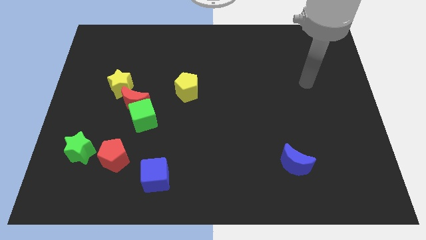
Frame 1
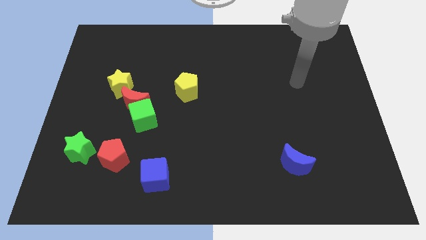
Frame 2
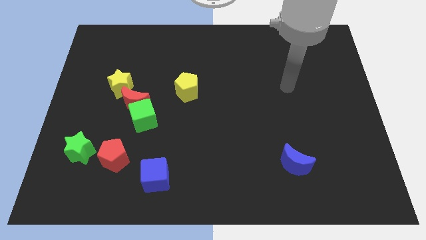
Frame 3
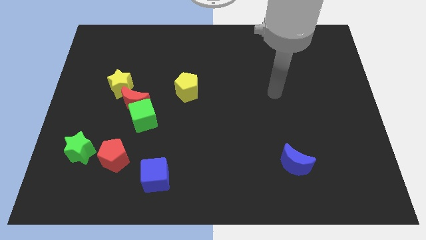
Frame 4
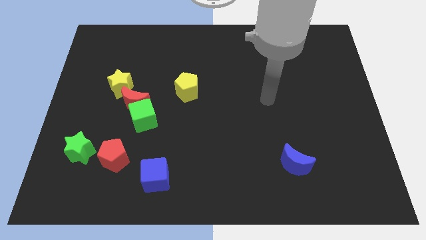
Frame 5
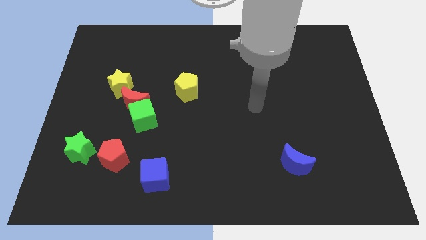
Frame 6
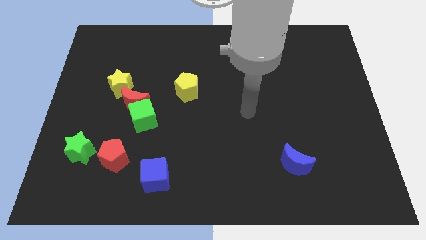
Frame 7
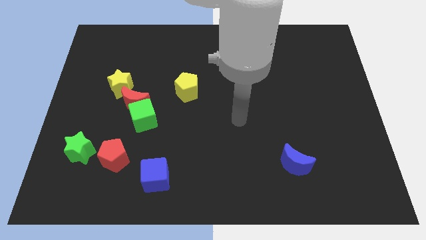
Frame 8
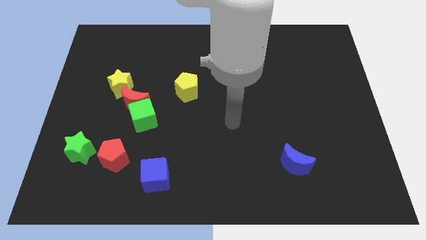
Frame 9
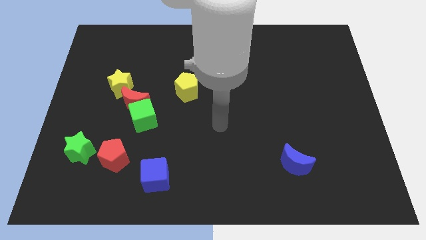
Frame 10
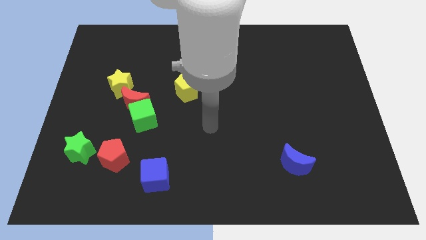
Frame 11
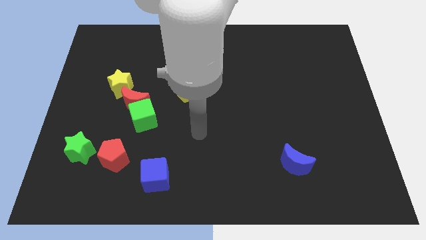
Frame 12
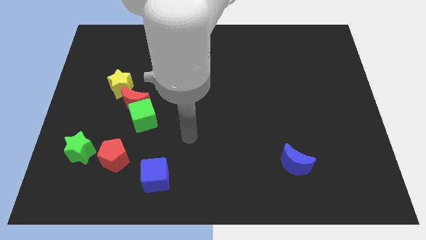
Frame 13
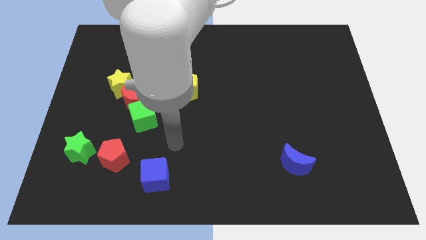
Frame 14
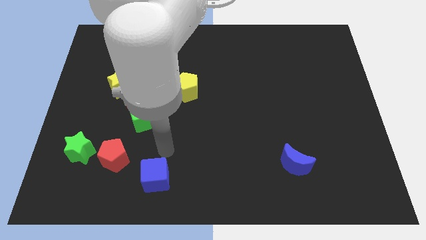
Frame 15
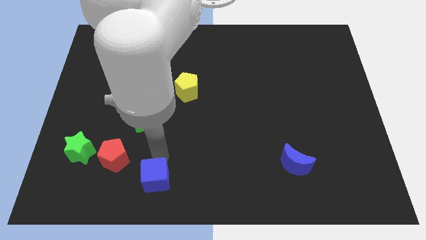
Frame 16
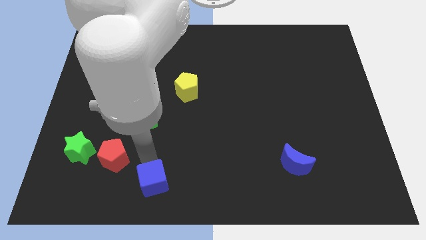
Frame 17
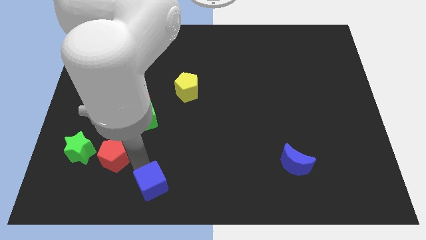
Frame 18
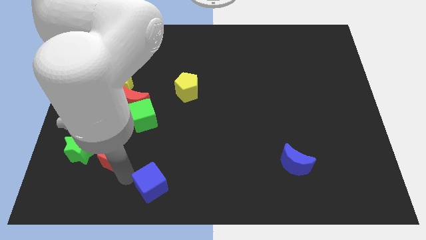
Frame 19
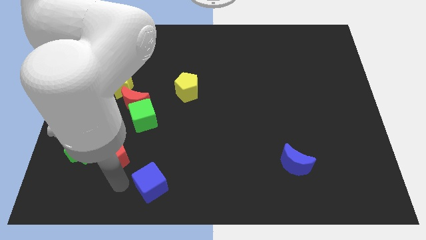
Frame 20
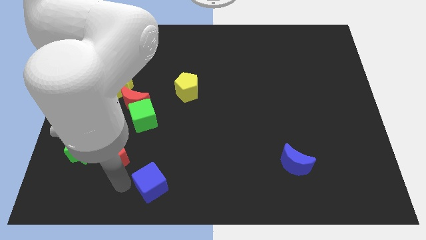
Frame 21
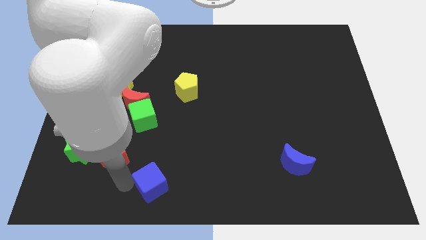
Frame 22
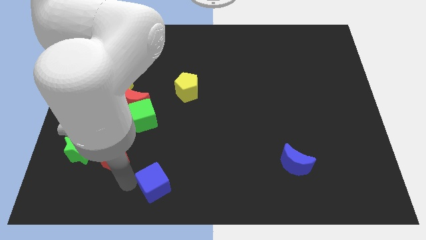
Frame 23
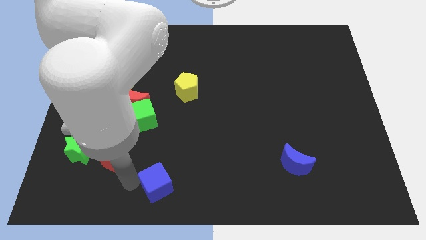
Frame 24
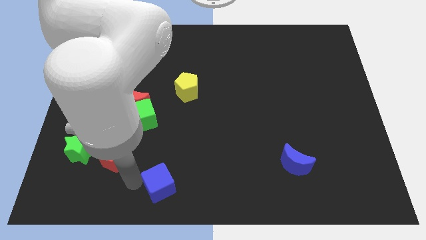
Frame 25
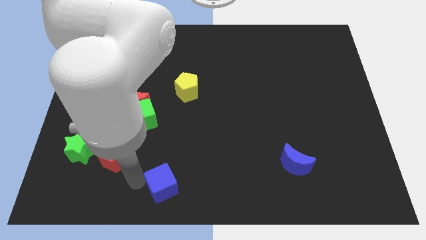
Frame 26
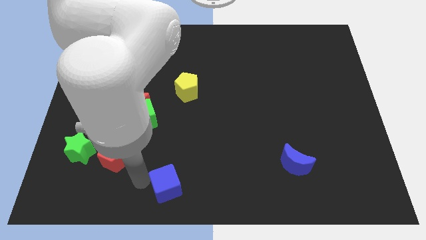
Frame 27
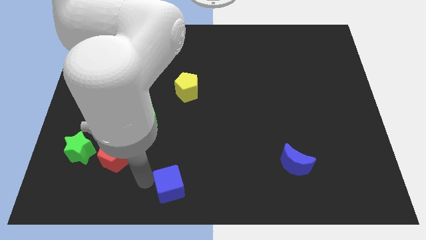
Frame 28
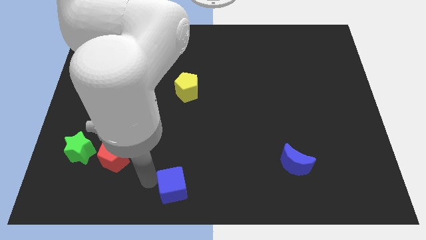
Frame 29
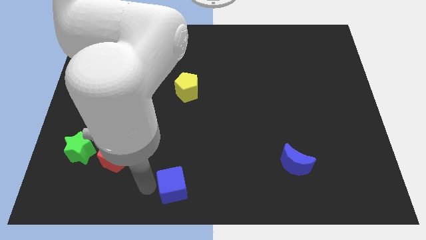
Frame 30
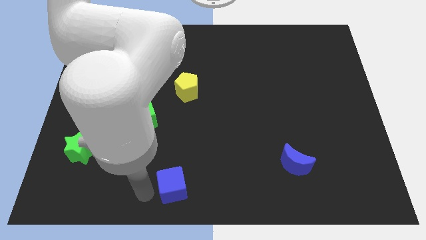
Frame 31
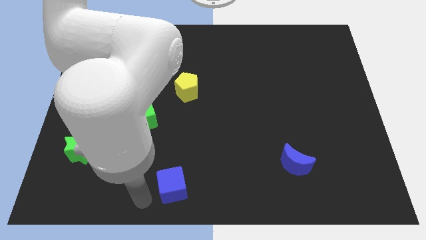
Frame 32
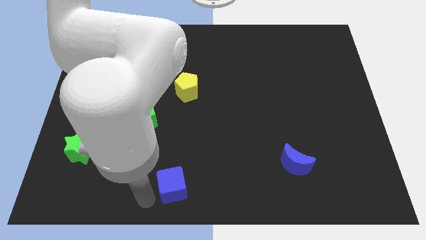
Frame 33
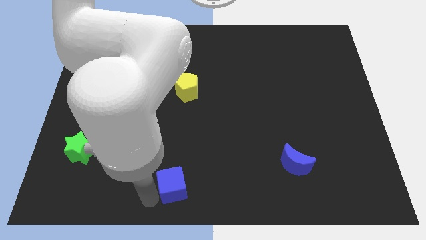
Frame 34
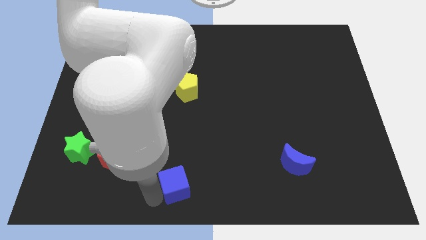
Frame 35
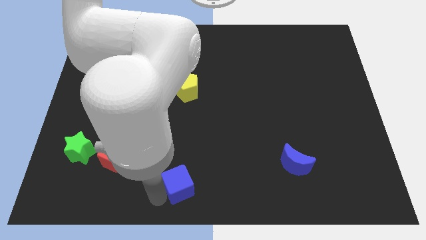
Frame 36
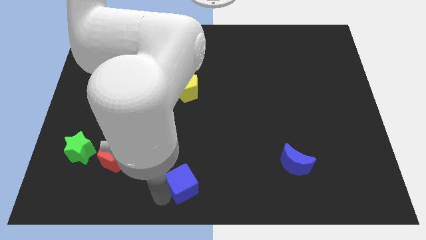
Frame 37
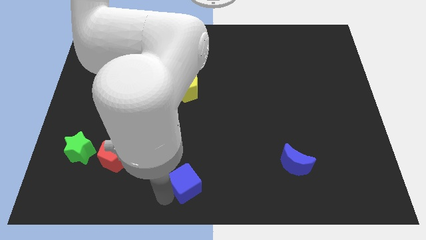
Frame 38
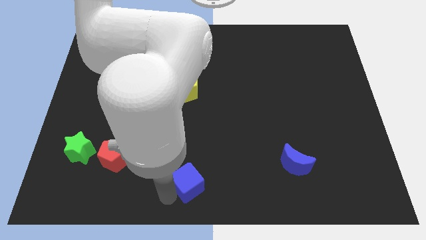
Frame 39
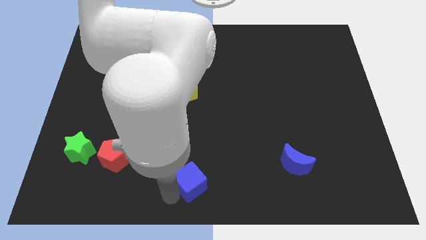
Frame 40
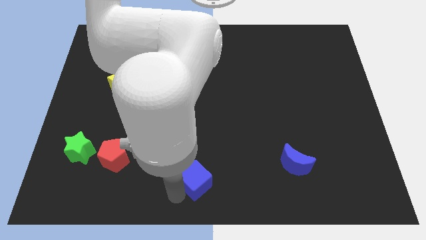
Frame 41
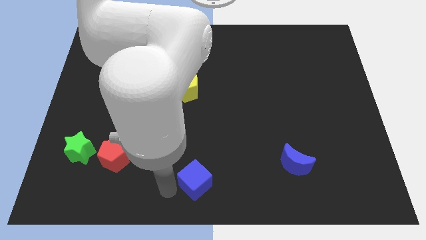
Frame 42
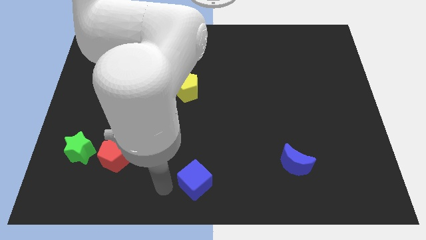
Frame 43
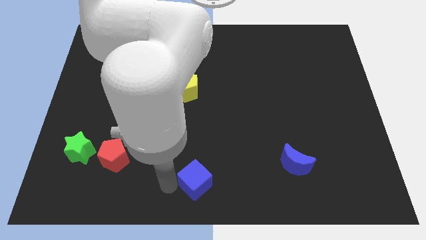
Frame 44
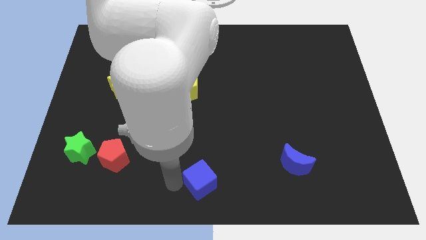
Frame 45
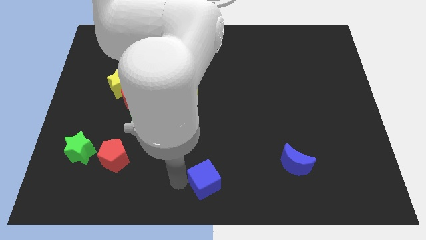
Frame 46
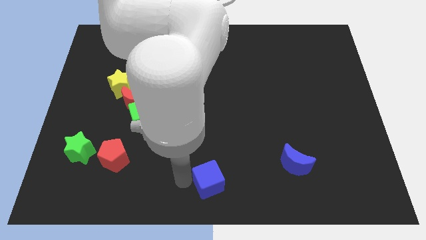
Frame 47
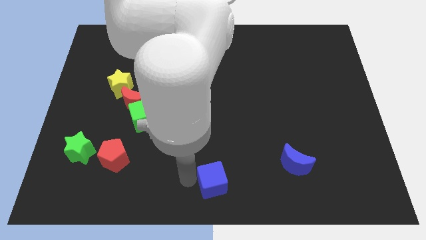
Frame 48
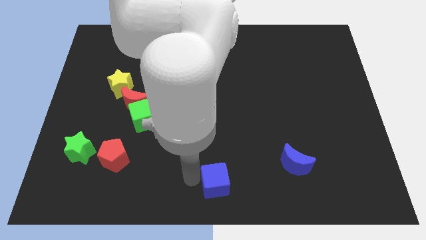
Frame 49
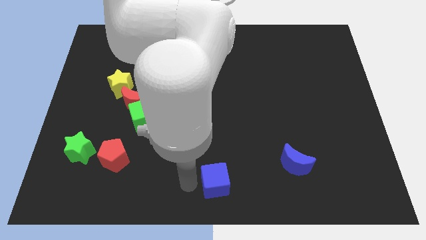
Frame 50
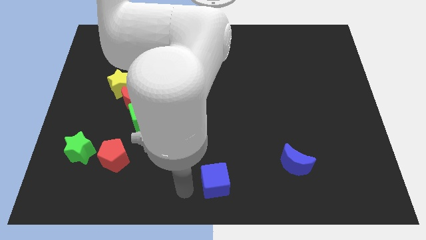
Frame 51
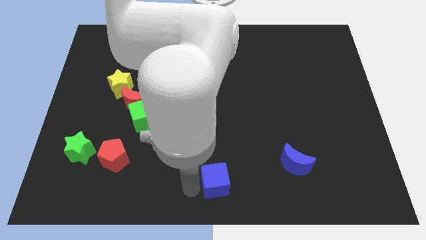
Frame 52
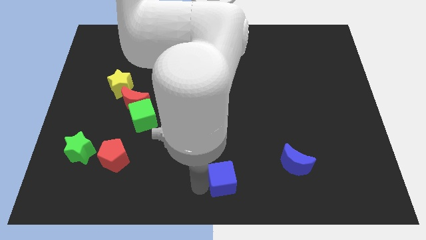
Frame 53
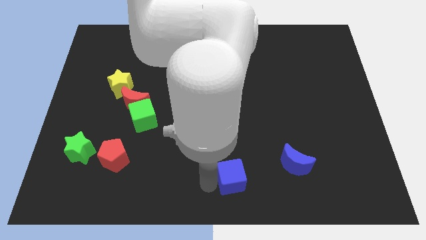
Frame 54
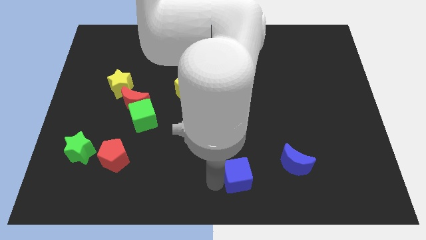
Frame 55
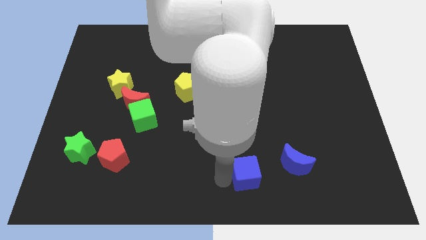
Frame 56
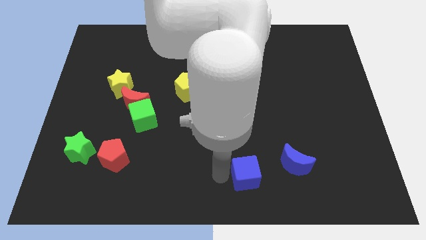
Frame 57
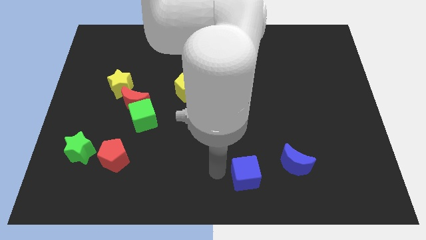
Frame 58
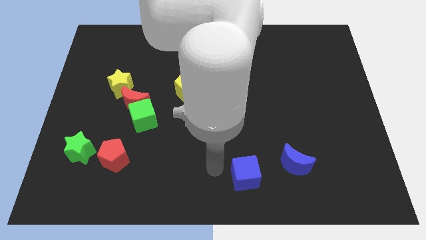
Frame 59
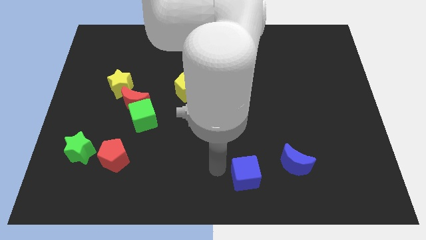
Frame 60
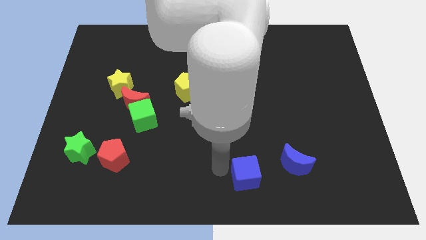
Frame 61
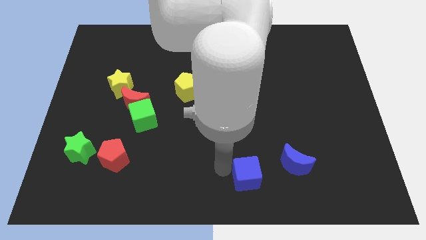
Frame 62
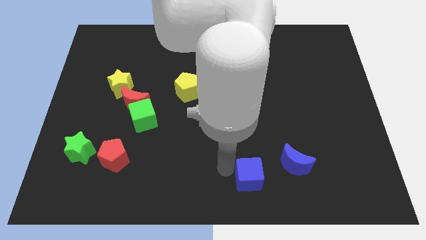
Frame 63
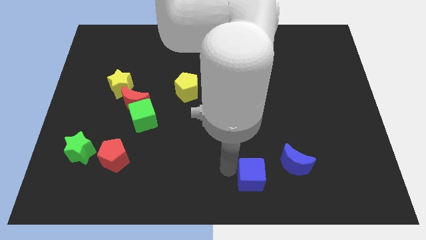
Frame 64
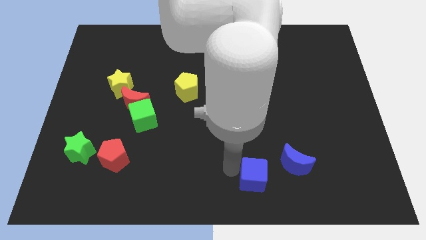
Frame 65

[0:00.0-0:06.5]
move the blue cube to the right

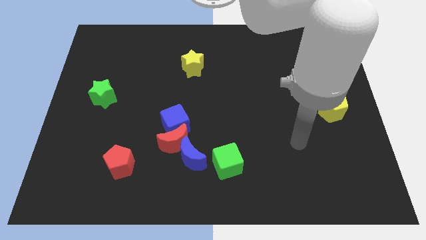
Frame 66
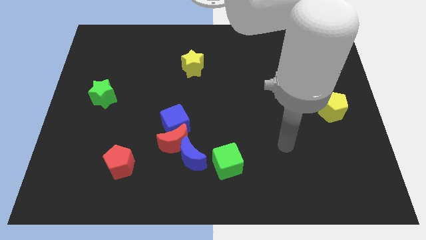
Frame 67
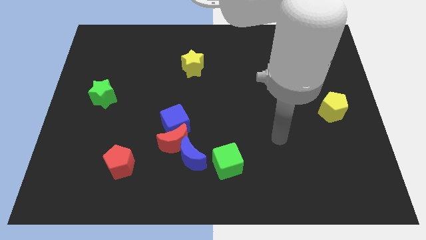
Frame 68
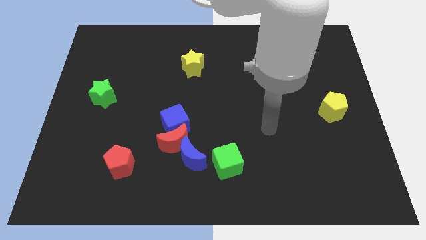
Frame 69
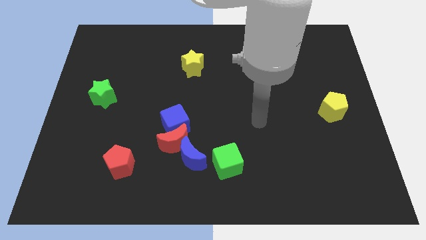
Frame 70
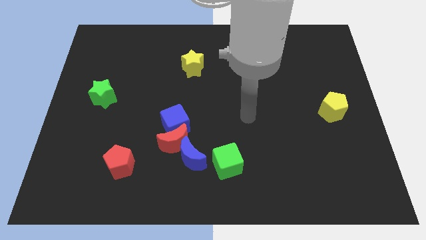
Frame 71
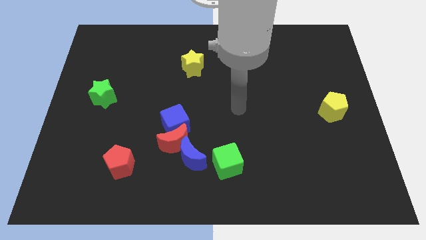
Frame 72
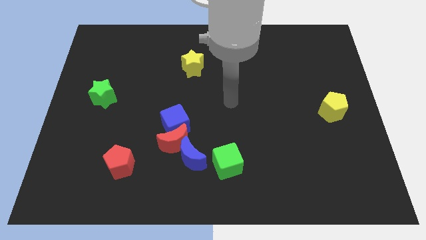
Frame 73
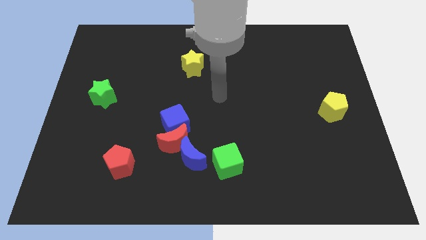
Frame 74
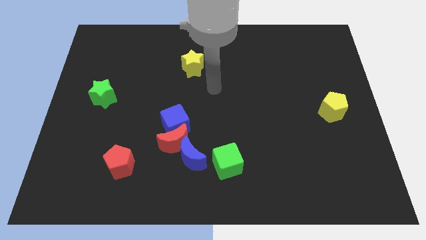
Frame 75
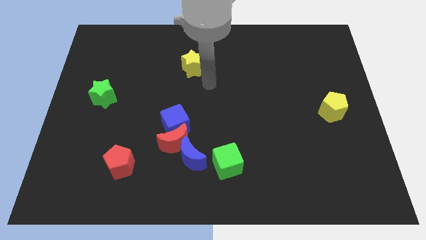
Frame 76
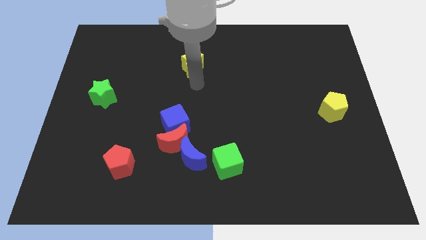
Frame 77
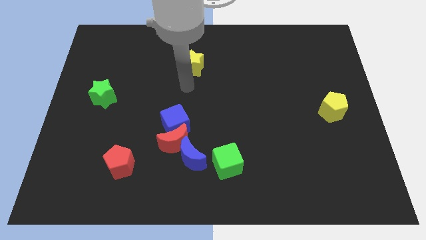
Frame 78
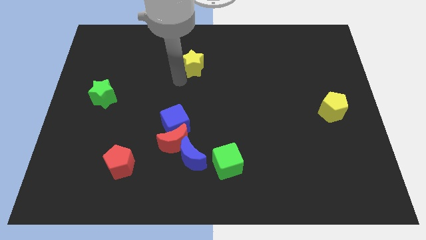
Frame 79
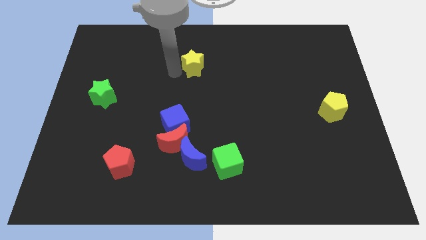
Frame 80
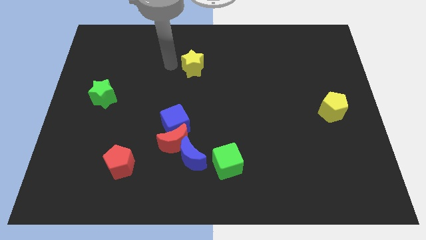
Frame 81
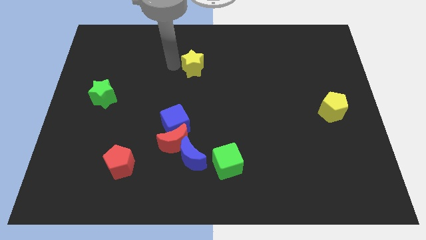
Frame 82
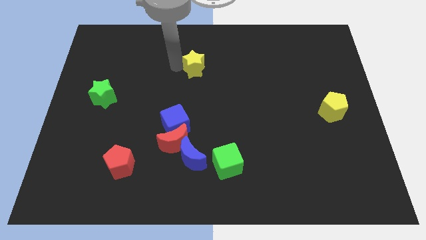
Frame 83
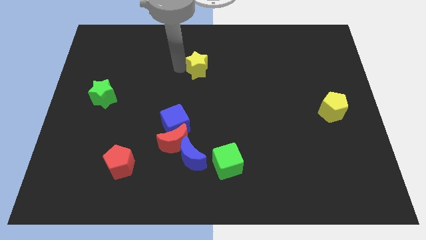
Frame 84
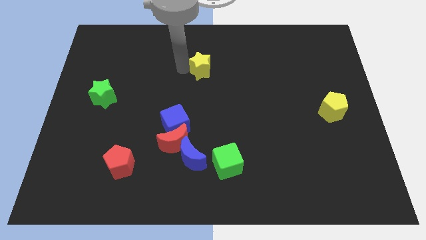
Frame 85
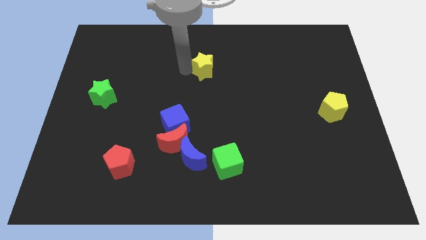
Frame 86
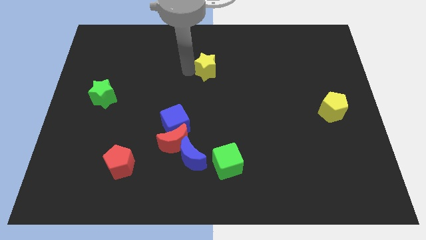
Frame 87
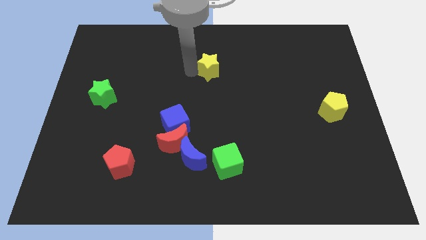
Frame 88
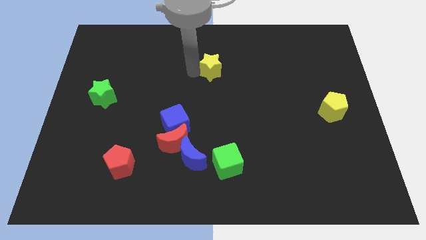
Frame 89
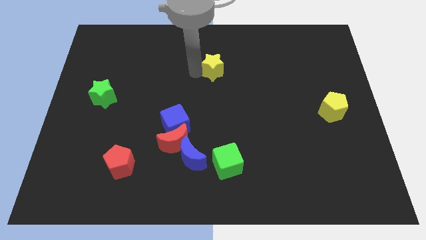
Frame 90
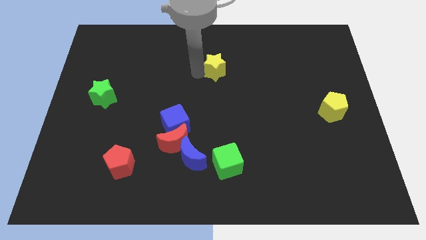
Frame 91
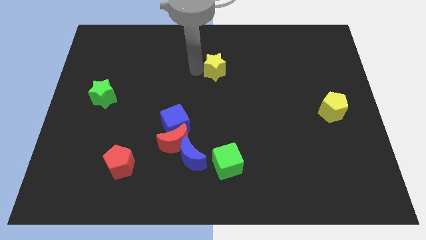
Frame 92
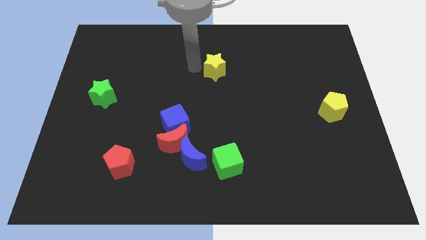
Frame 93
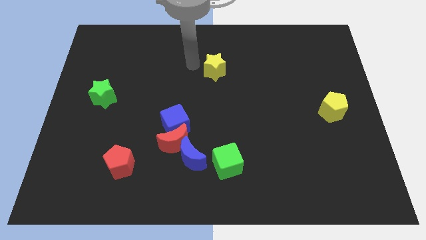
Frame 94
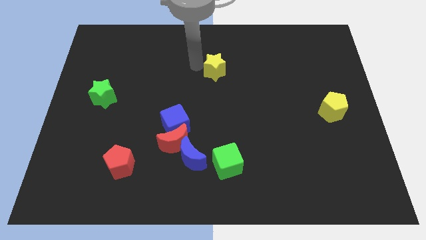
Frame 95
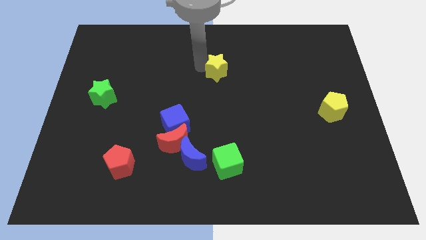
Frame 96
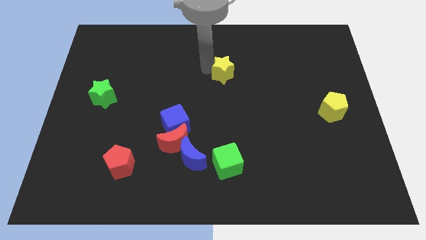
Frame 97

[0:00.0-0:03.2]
slide the yellow star to the right a little
